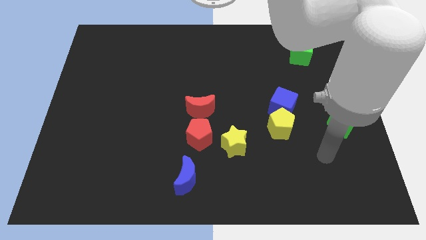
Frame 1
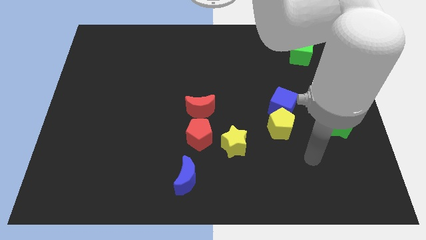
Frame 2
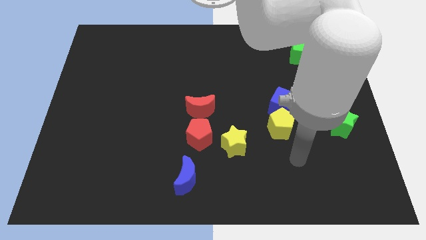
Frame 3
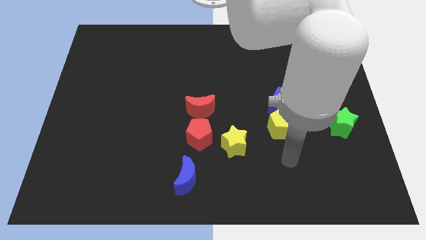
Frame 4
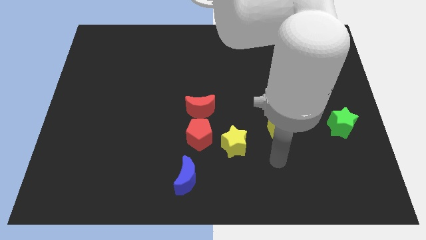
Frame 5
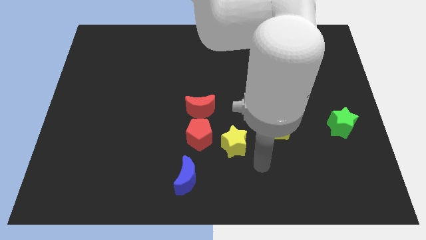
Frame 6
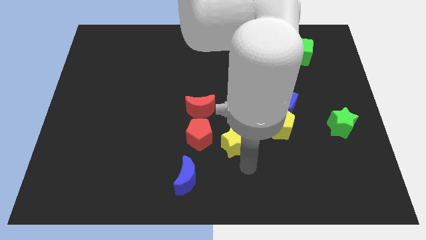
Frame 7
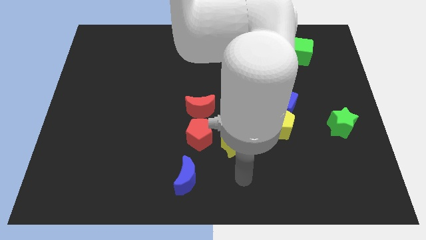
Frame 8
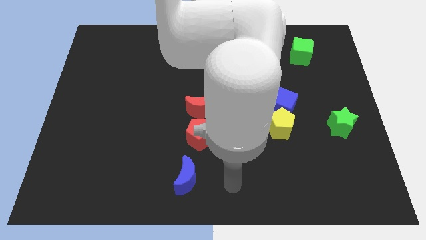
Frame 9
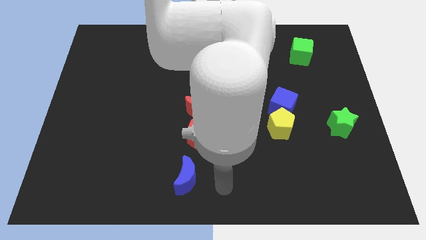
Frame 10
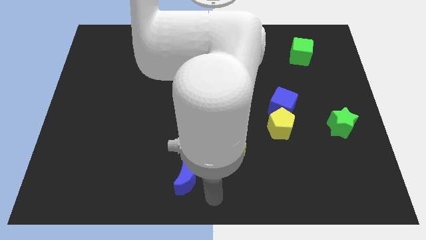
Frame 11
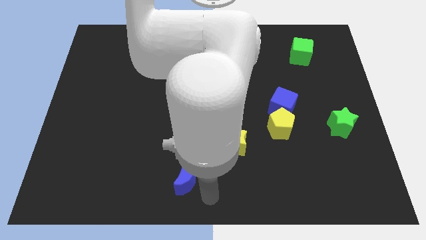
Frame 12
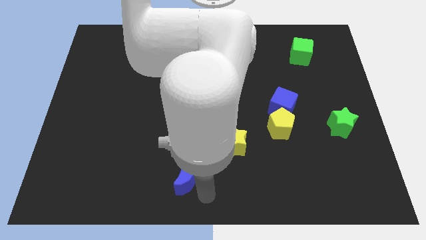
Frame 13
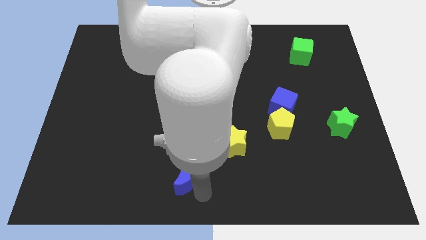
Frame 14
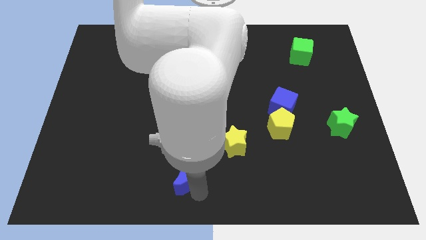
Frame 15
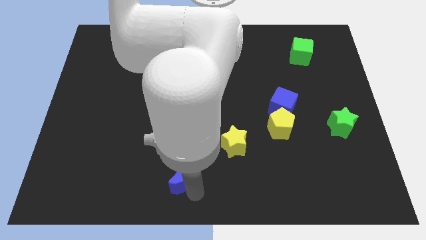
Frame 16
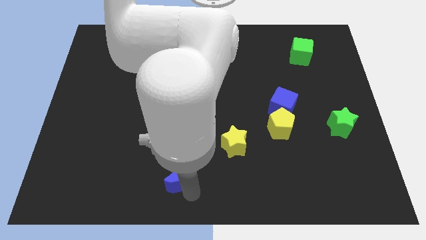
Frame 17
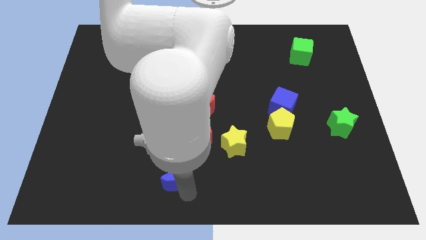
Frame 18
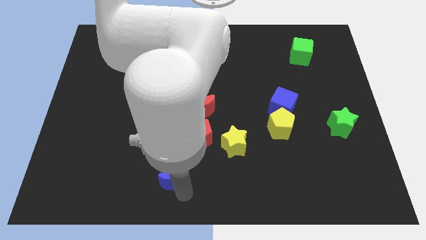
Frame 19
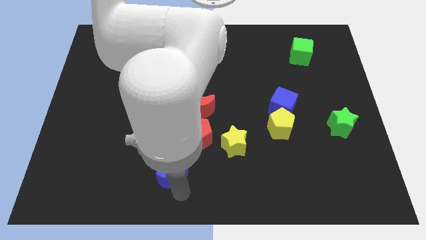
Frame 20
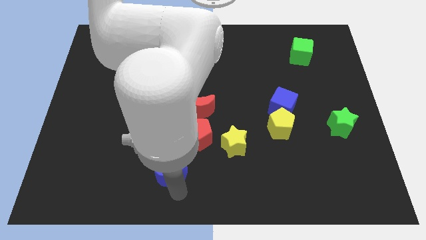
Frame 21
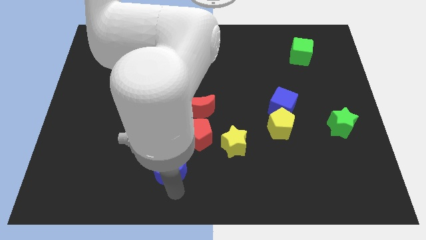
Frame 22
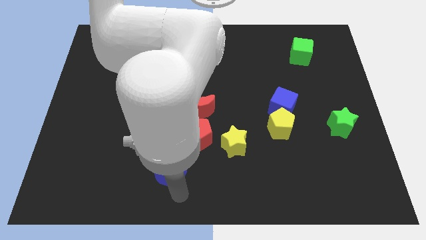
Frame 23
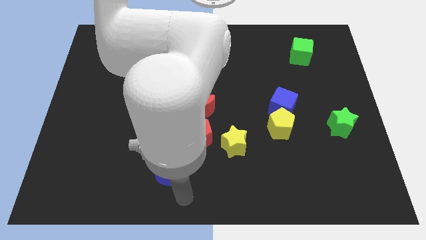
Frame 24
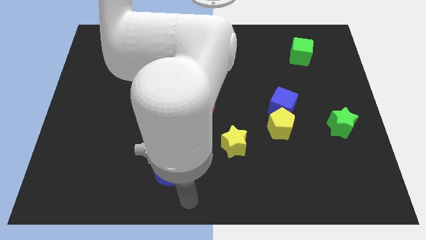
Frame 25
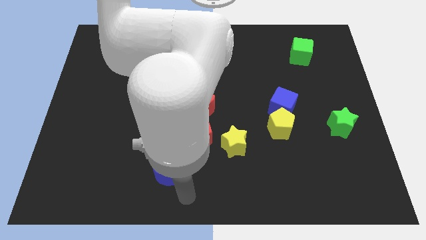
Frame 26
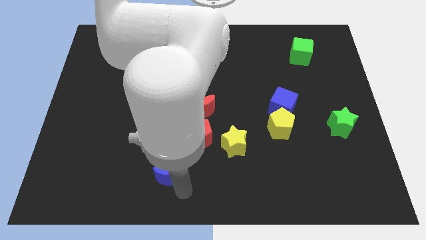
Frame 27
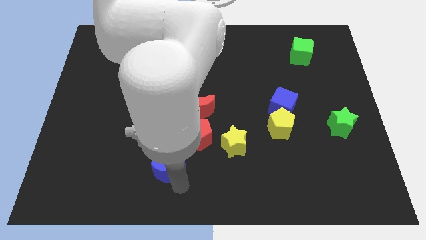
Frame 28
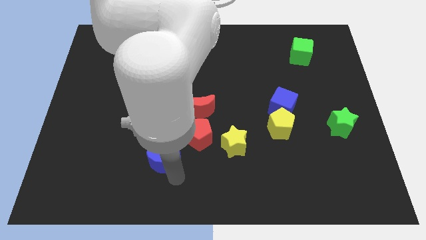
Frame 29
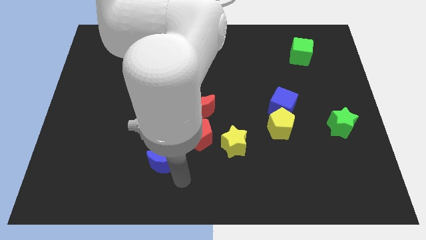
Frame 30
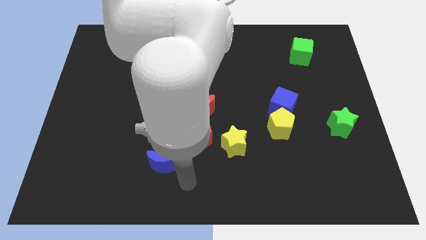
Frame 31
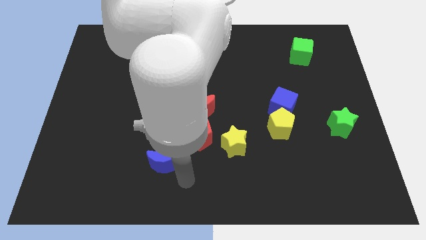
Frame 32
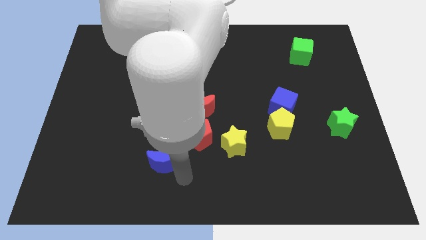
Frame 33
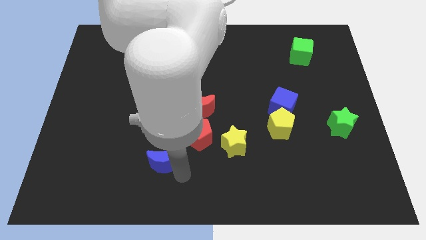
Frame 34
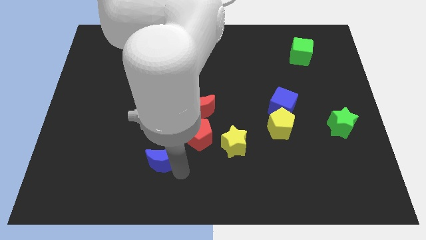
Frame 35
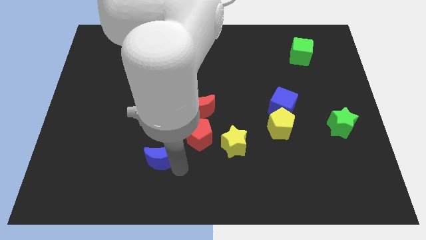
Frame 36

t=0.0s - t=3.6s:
push the blue moon diagonally up and to the left a little

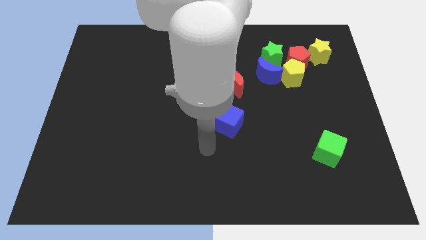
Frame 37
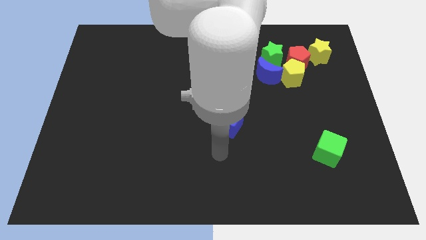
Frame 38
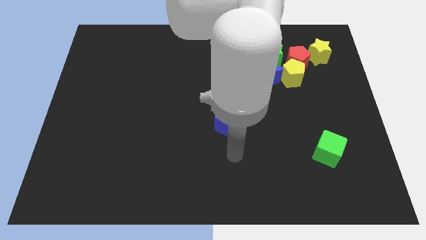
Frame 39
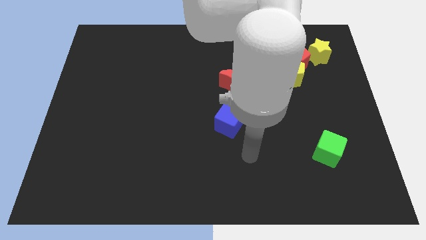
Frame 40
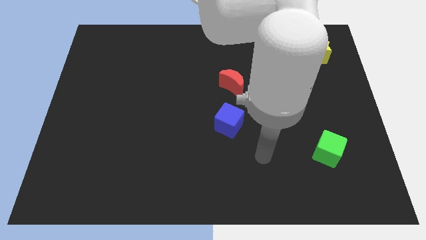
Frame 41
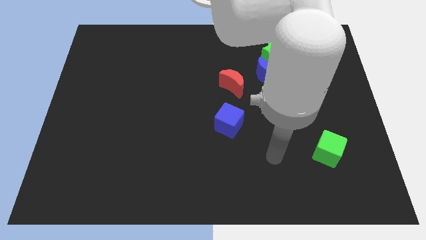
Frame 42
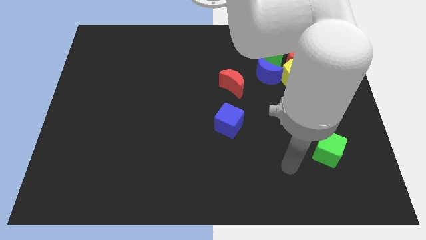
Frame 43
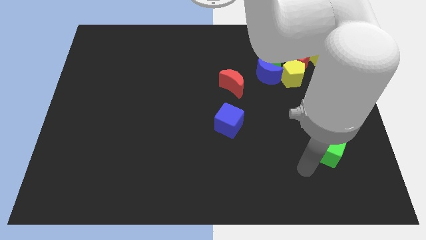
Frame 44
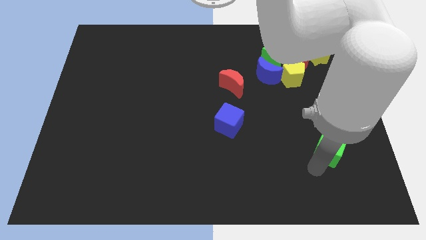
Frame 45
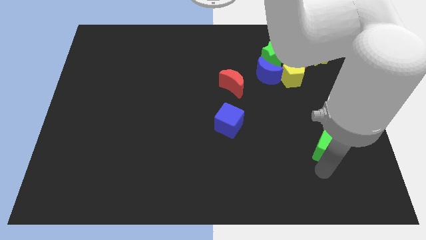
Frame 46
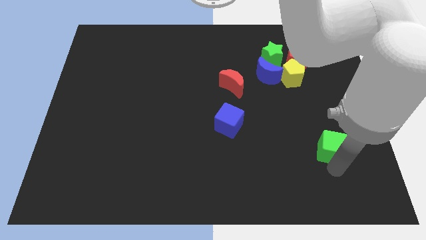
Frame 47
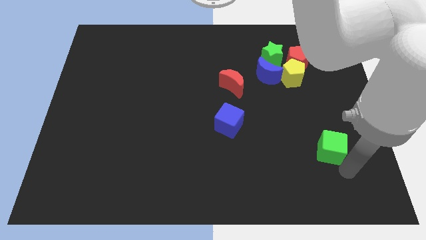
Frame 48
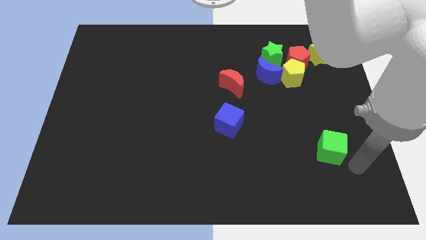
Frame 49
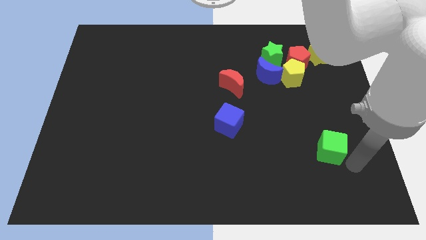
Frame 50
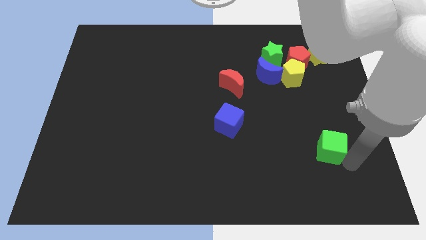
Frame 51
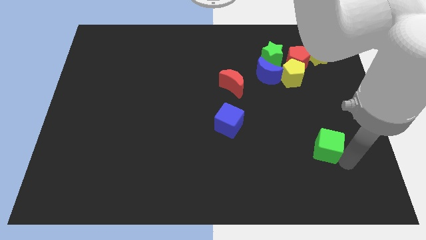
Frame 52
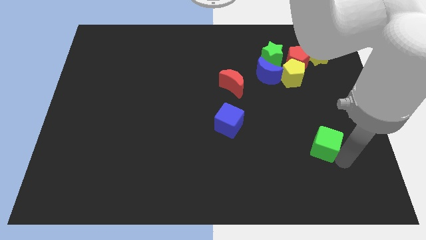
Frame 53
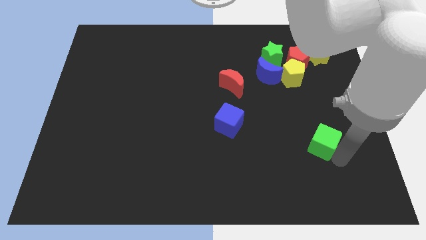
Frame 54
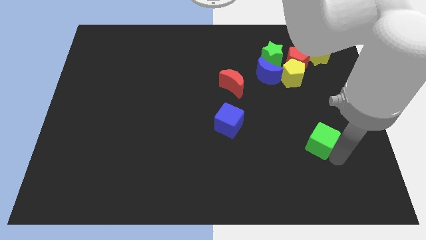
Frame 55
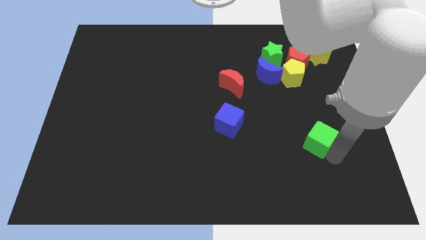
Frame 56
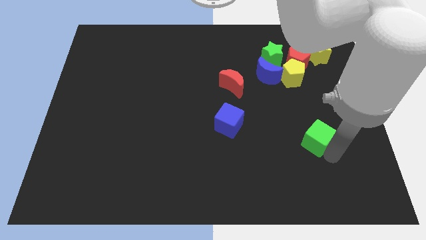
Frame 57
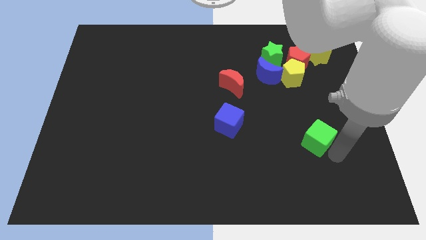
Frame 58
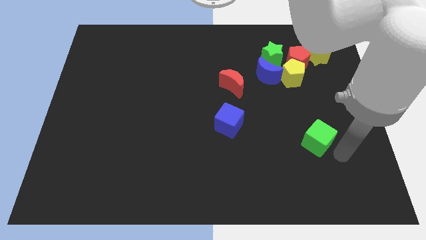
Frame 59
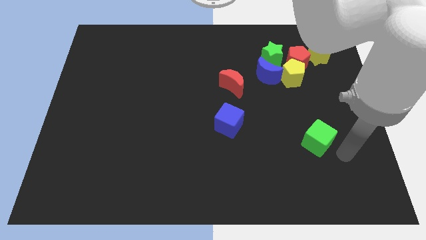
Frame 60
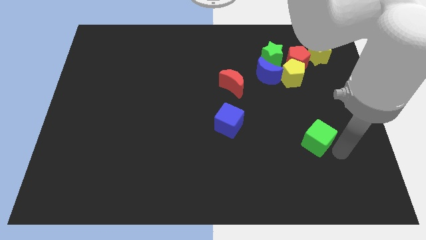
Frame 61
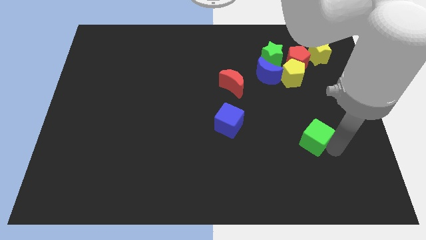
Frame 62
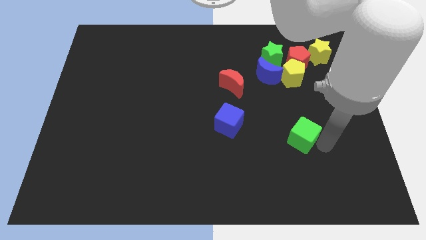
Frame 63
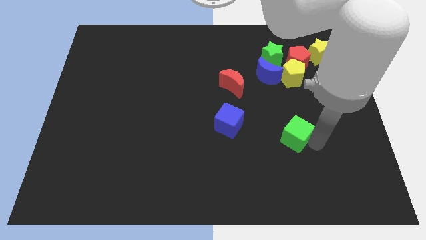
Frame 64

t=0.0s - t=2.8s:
slide the green cube a bit up and left

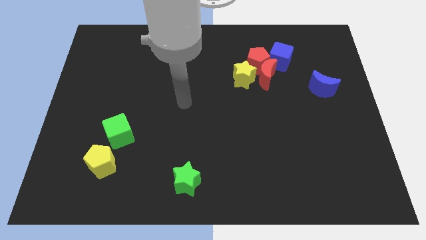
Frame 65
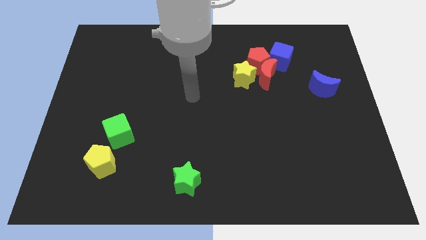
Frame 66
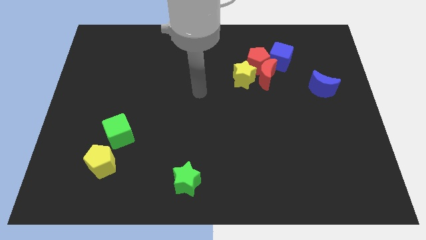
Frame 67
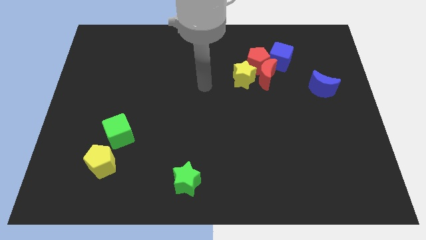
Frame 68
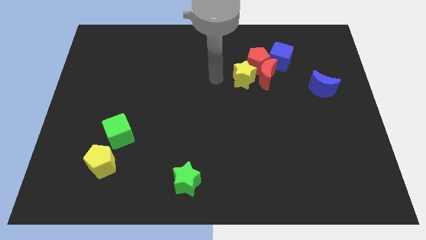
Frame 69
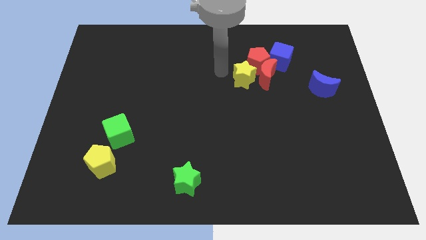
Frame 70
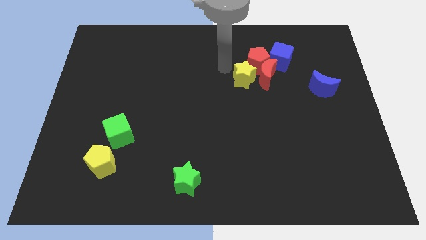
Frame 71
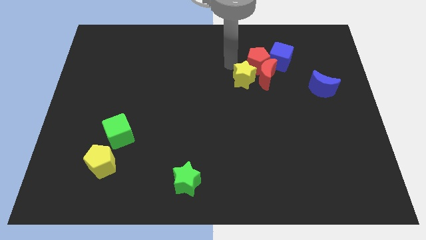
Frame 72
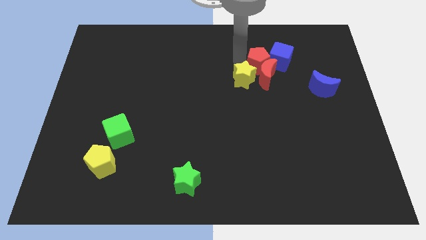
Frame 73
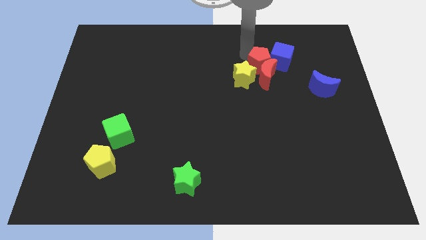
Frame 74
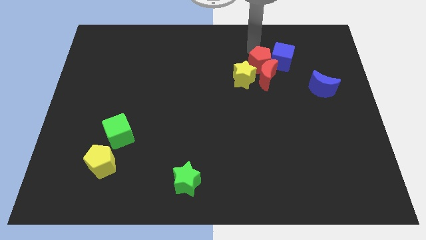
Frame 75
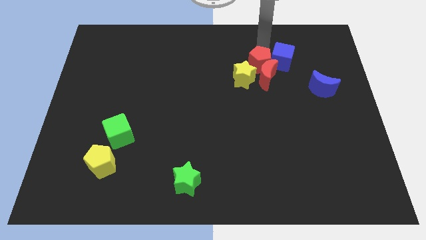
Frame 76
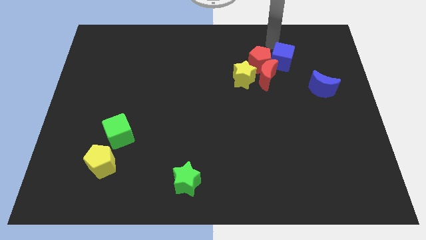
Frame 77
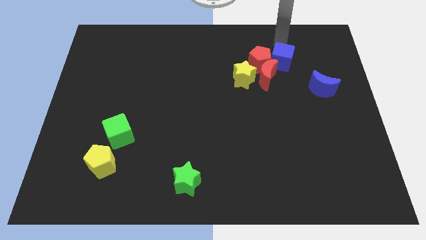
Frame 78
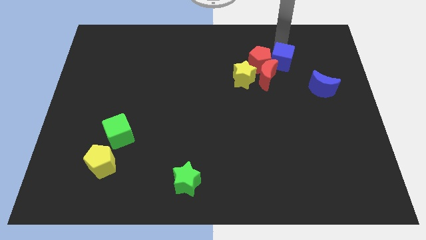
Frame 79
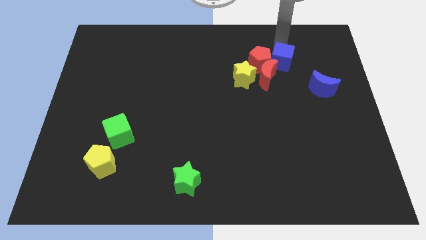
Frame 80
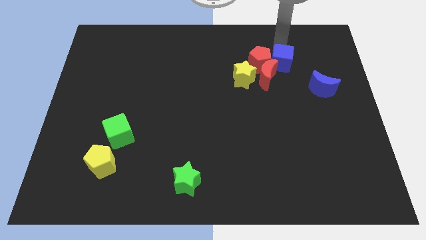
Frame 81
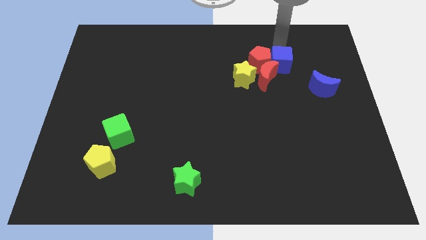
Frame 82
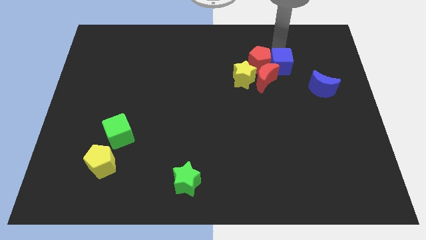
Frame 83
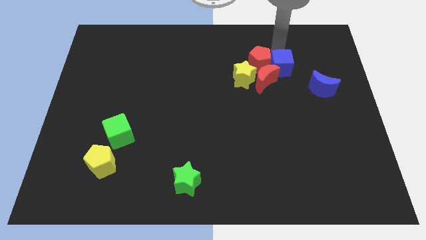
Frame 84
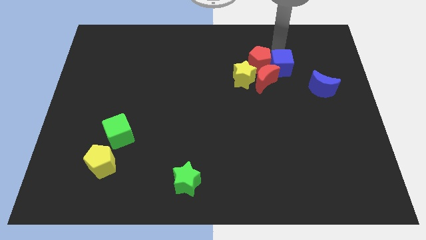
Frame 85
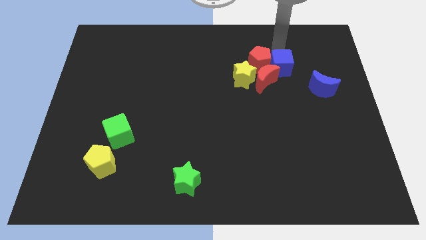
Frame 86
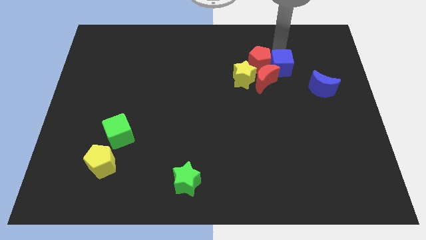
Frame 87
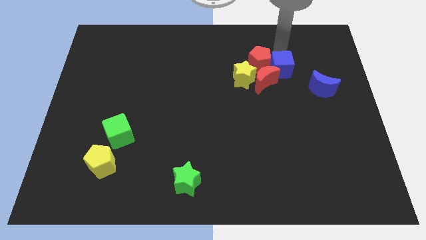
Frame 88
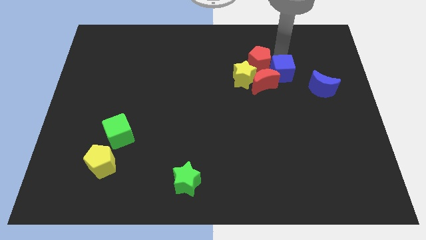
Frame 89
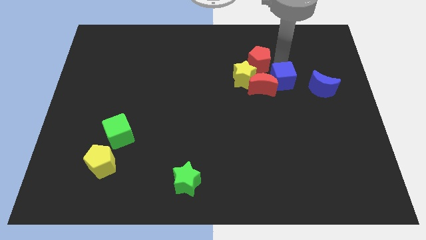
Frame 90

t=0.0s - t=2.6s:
move the blue cube slightly down
